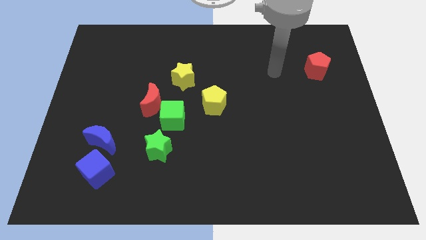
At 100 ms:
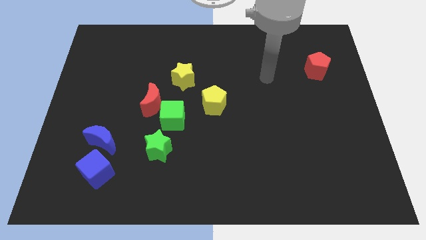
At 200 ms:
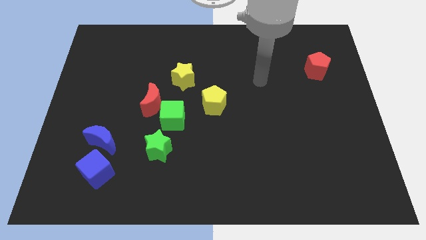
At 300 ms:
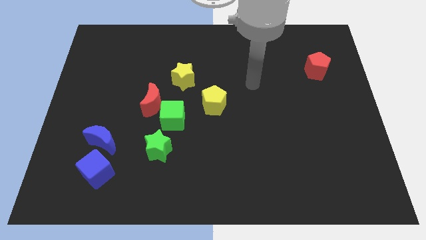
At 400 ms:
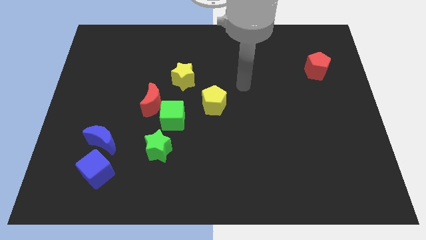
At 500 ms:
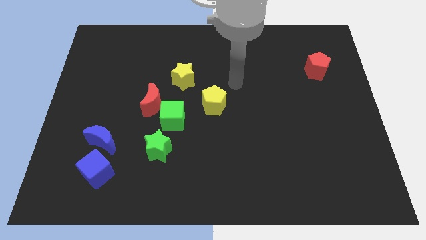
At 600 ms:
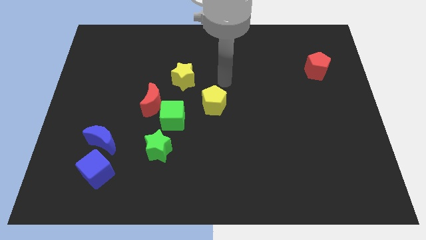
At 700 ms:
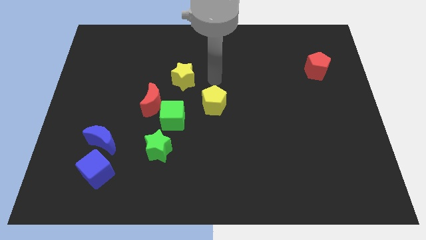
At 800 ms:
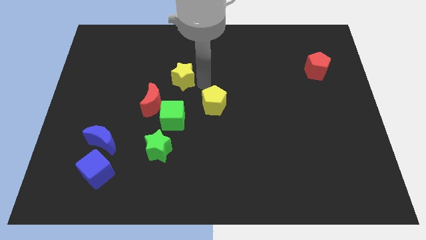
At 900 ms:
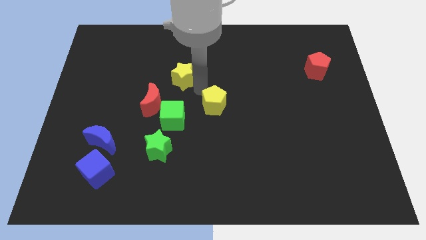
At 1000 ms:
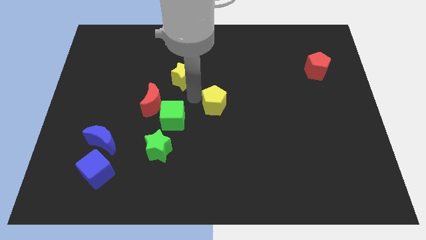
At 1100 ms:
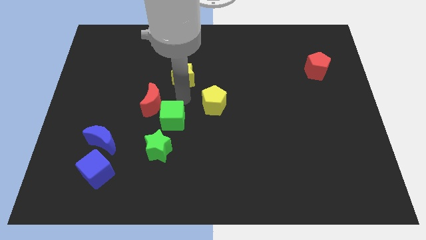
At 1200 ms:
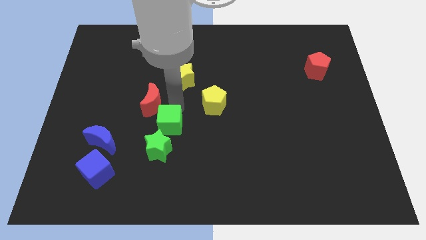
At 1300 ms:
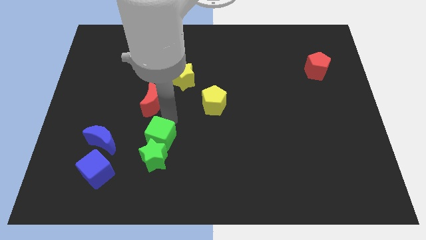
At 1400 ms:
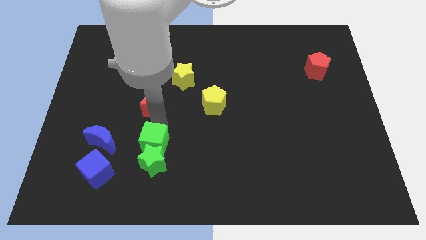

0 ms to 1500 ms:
pull the red moon apart from the green cube

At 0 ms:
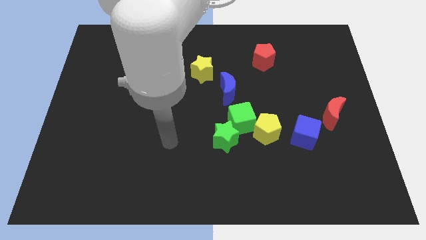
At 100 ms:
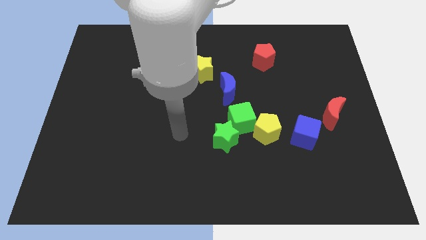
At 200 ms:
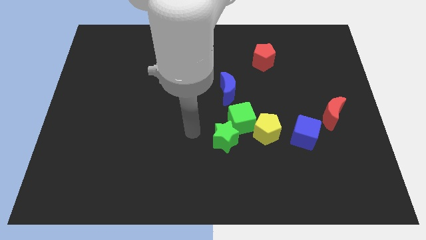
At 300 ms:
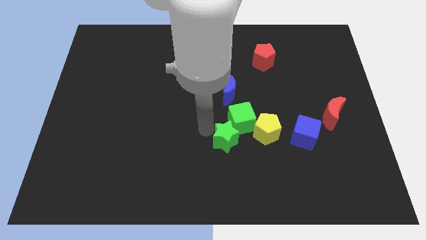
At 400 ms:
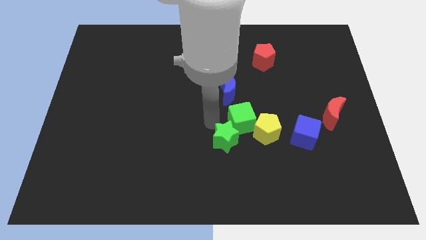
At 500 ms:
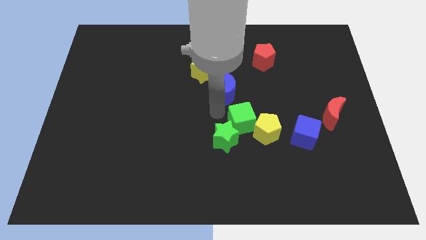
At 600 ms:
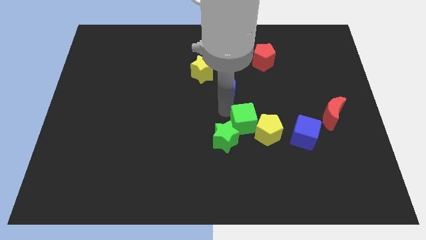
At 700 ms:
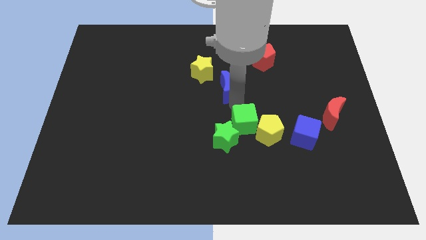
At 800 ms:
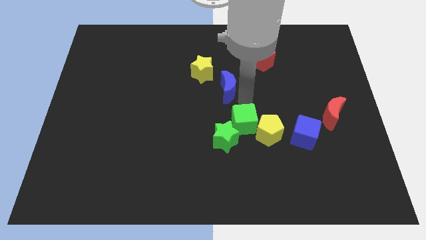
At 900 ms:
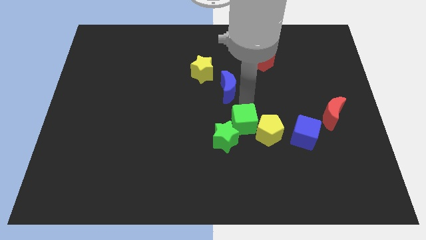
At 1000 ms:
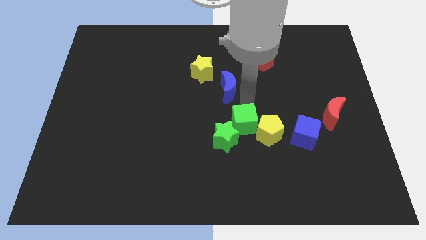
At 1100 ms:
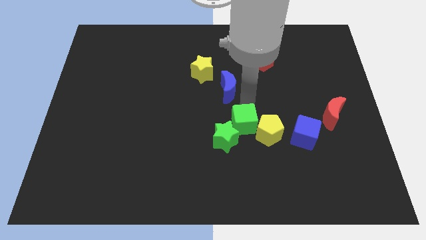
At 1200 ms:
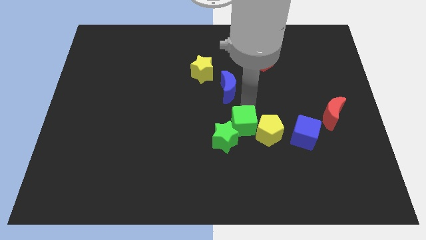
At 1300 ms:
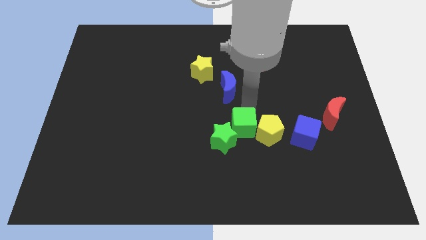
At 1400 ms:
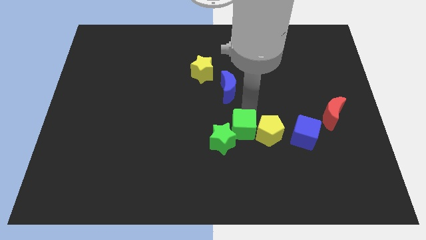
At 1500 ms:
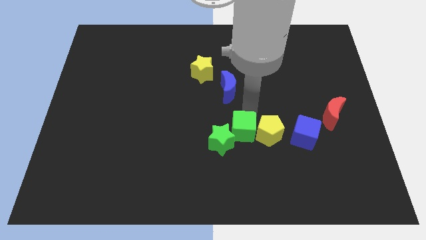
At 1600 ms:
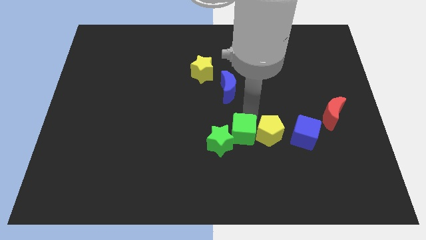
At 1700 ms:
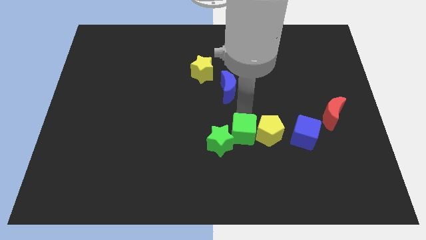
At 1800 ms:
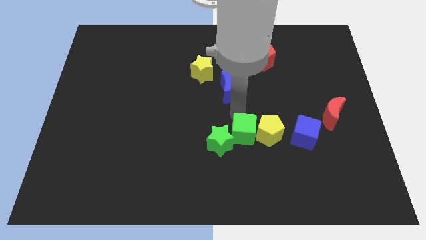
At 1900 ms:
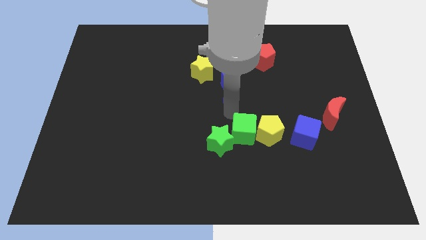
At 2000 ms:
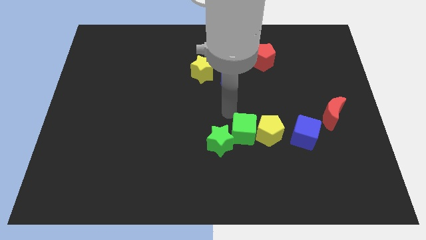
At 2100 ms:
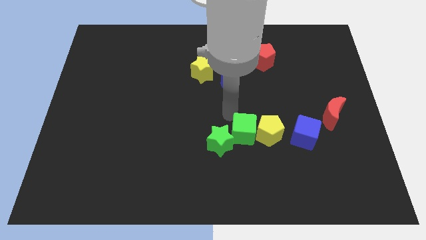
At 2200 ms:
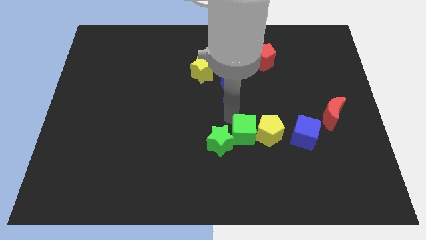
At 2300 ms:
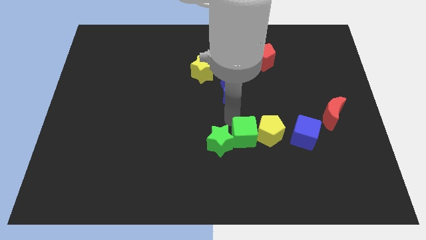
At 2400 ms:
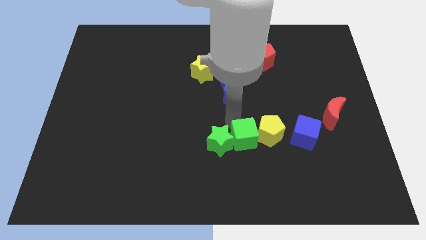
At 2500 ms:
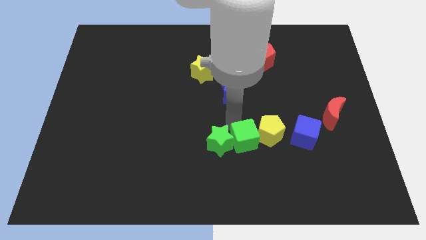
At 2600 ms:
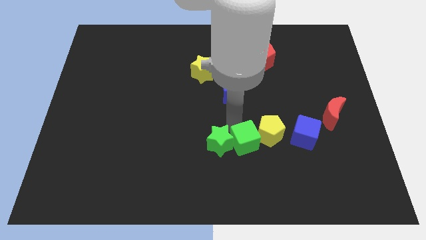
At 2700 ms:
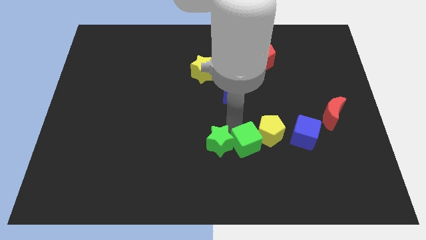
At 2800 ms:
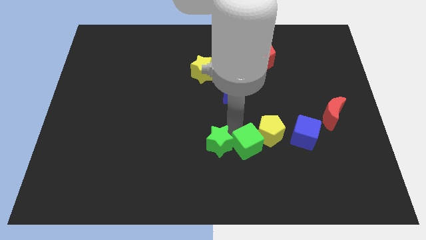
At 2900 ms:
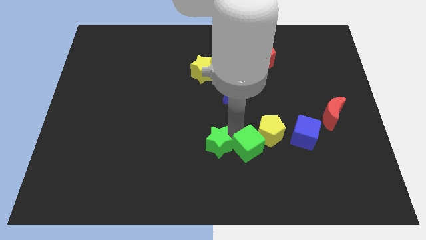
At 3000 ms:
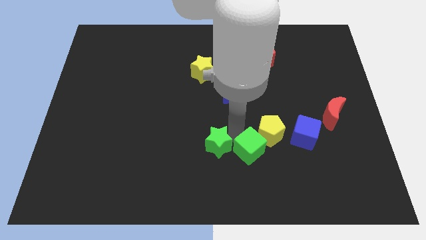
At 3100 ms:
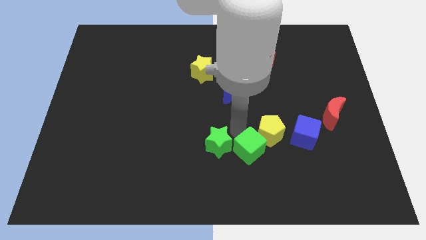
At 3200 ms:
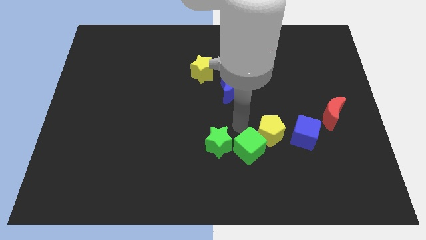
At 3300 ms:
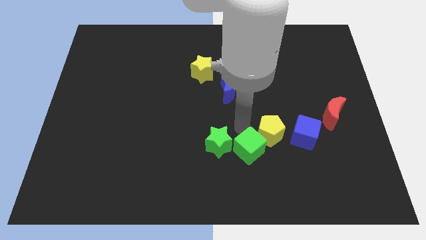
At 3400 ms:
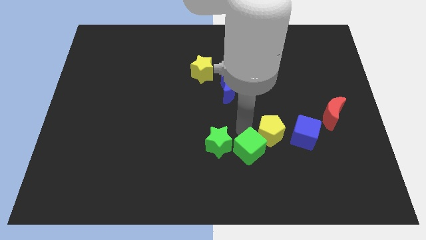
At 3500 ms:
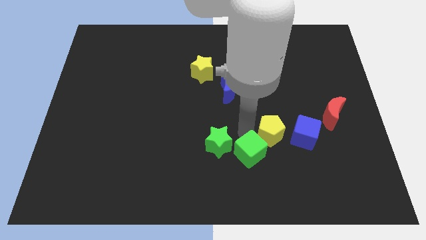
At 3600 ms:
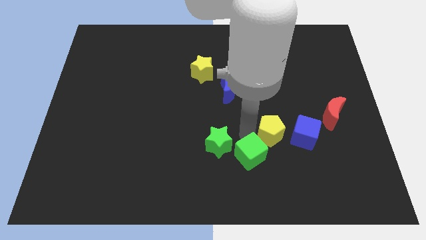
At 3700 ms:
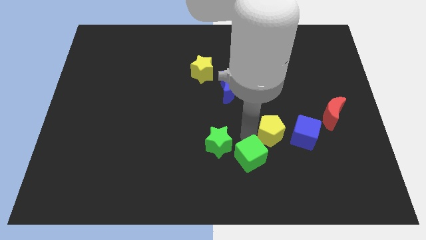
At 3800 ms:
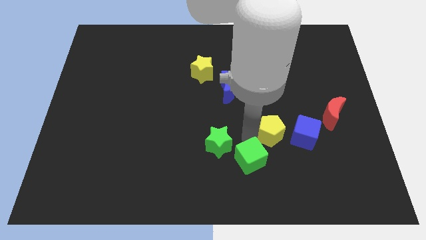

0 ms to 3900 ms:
pull the green cube apart from the yellow pentagon, green star, and blue moon

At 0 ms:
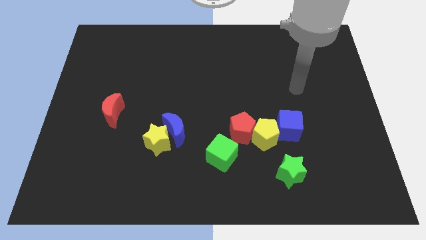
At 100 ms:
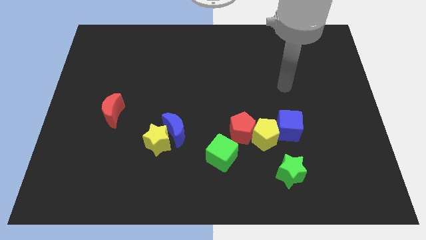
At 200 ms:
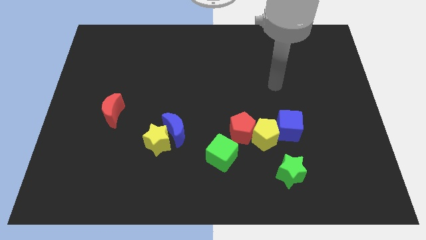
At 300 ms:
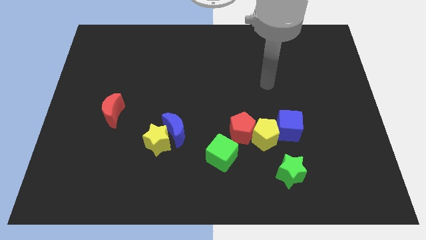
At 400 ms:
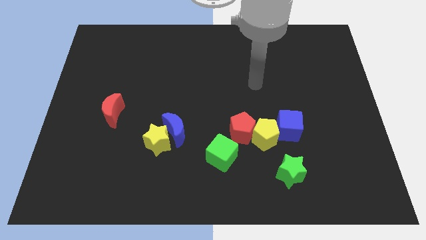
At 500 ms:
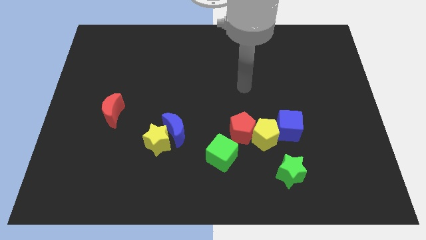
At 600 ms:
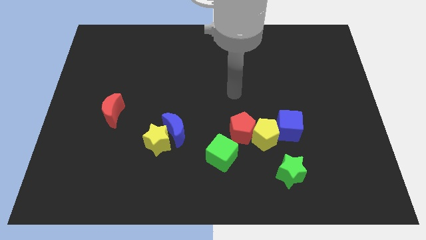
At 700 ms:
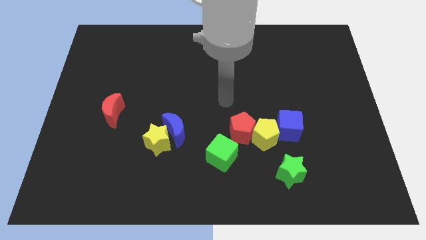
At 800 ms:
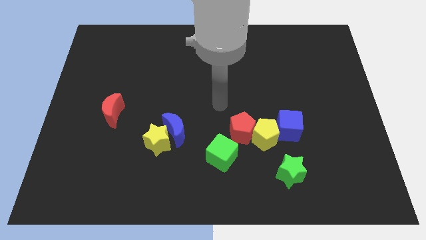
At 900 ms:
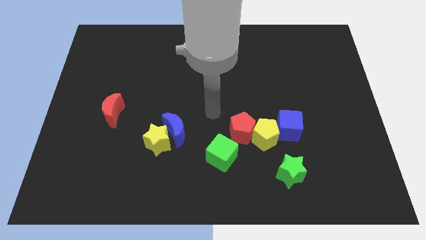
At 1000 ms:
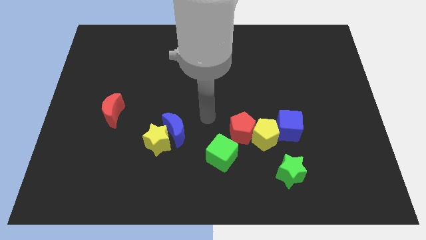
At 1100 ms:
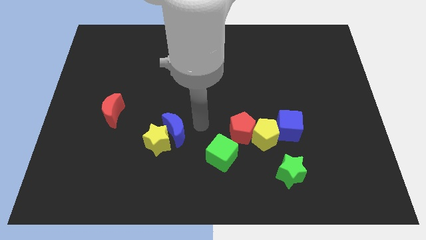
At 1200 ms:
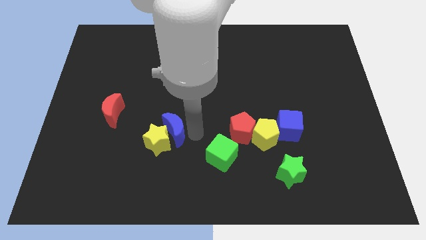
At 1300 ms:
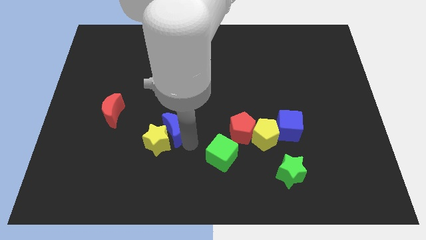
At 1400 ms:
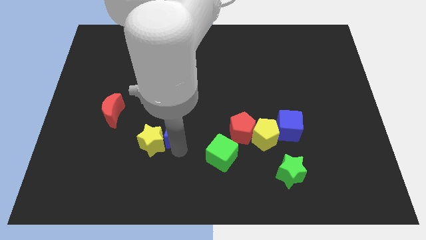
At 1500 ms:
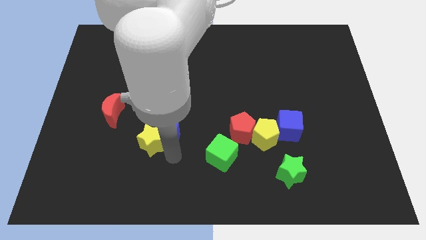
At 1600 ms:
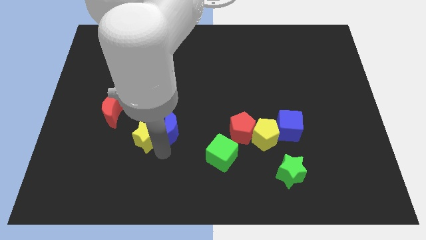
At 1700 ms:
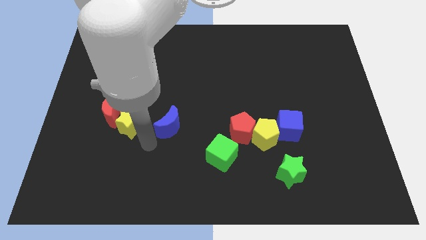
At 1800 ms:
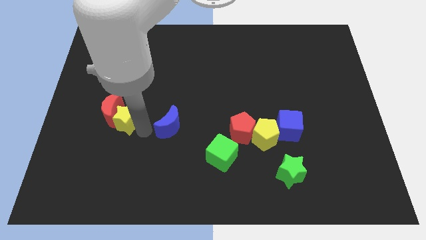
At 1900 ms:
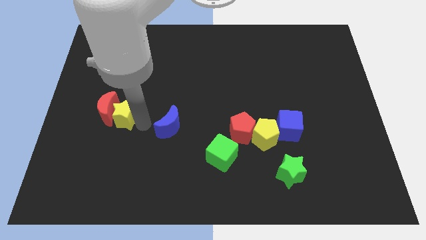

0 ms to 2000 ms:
separate the blue moon from the yellow star

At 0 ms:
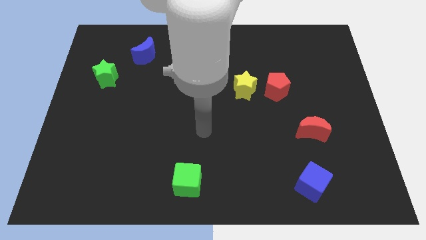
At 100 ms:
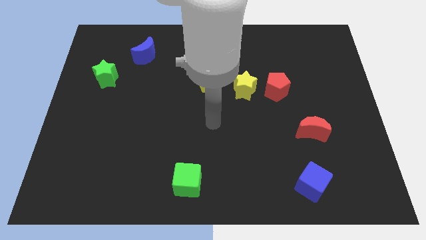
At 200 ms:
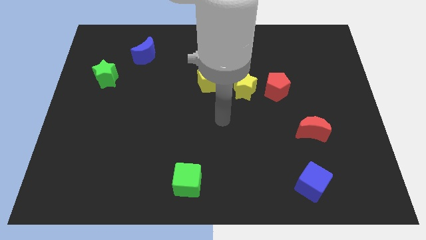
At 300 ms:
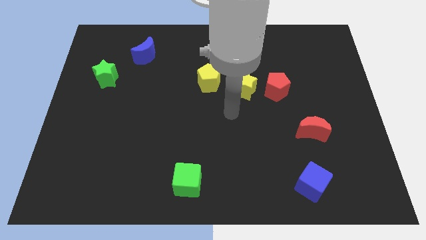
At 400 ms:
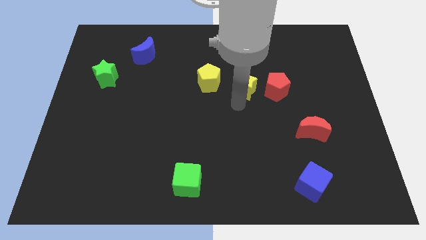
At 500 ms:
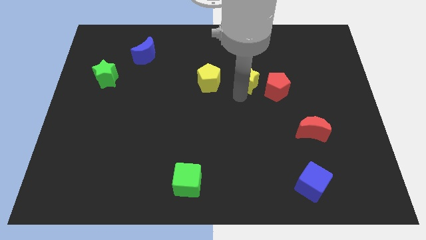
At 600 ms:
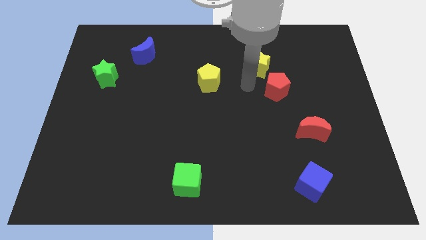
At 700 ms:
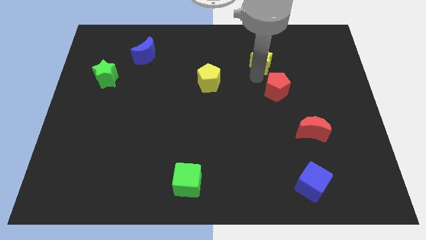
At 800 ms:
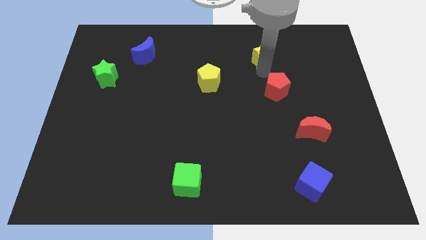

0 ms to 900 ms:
move the red pentagon away from the yellow star

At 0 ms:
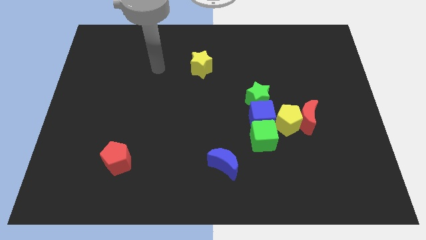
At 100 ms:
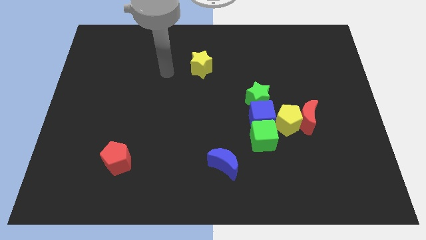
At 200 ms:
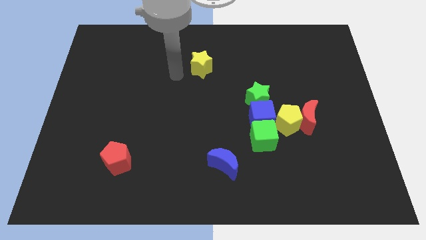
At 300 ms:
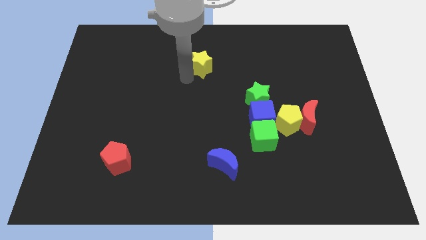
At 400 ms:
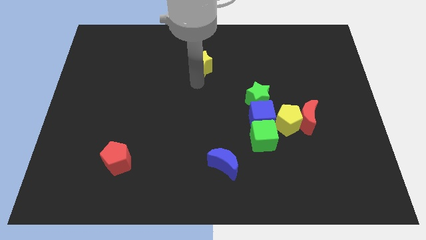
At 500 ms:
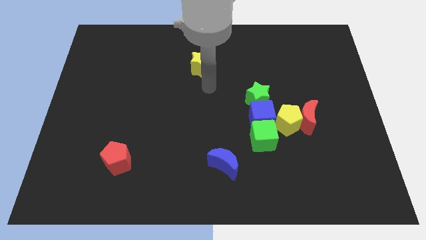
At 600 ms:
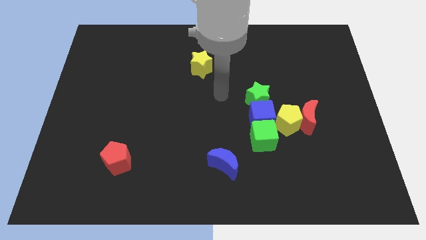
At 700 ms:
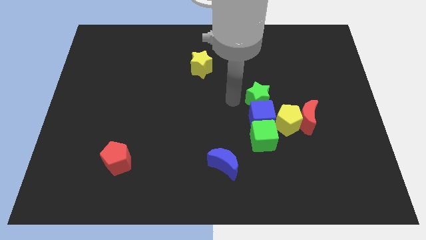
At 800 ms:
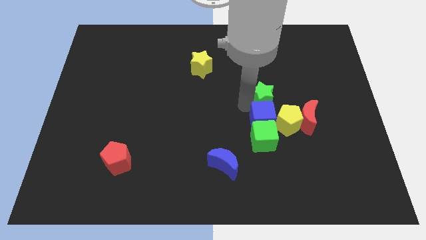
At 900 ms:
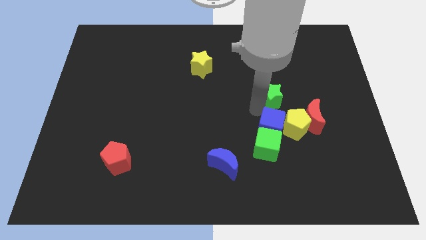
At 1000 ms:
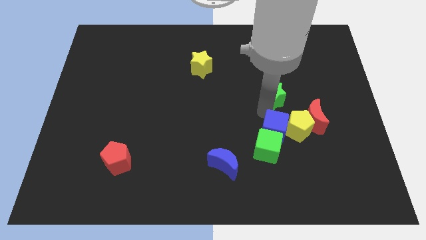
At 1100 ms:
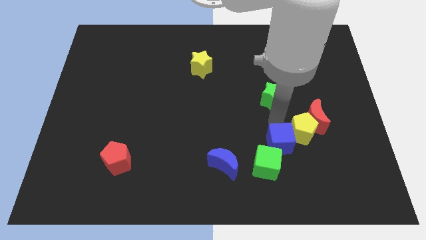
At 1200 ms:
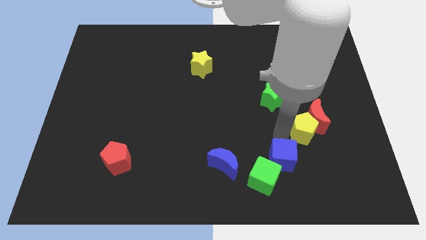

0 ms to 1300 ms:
move the green cube away from the blue cube and yellow pentagon
